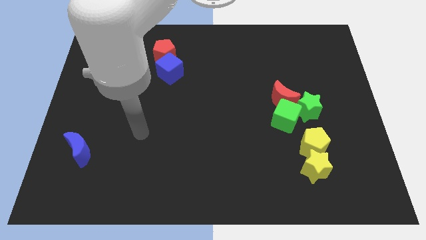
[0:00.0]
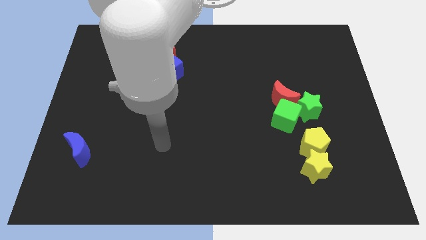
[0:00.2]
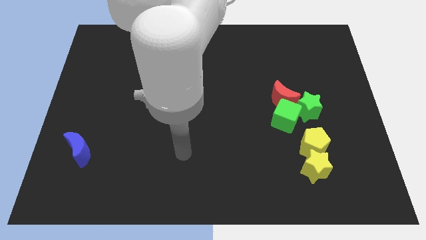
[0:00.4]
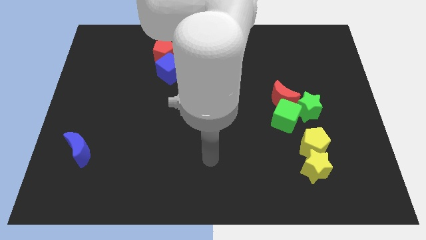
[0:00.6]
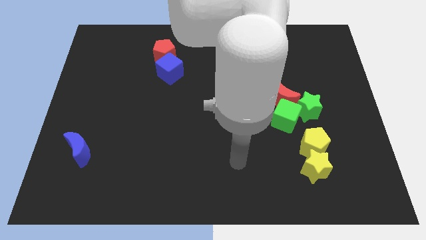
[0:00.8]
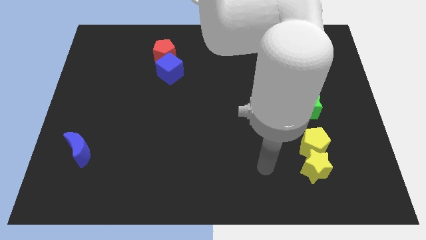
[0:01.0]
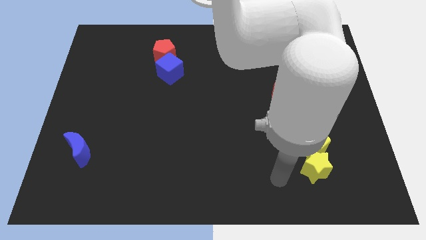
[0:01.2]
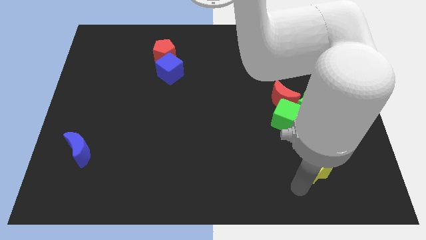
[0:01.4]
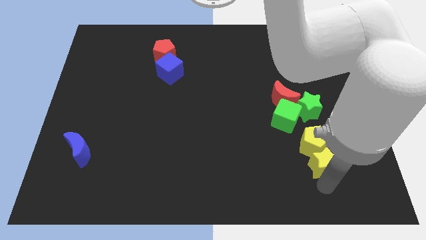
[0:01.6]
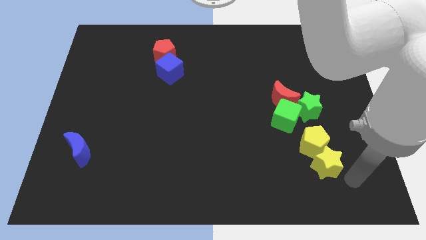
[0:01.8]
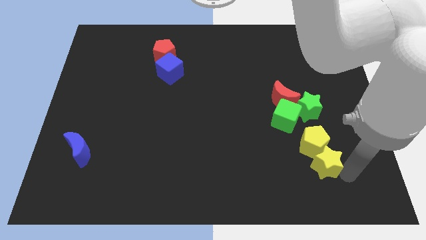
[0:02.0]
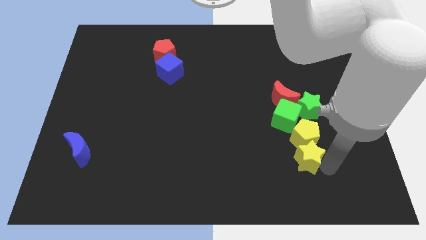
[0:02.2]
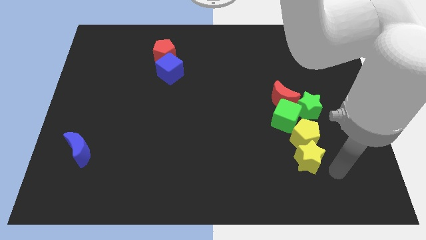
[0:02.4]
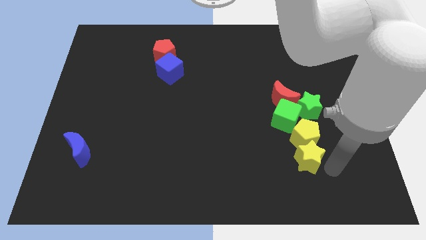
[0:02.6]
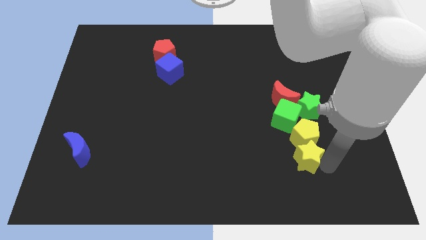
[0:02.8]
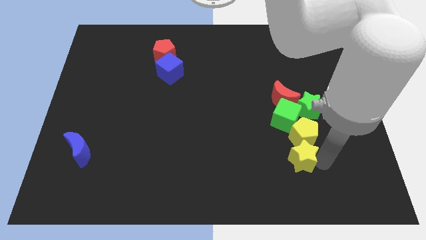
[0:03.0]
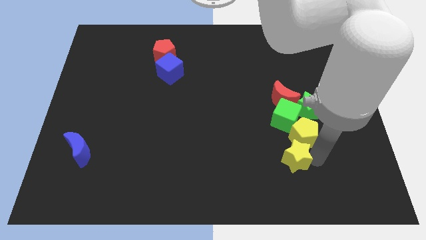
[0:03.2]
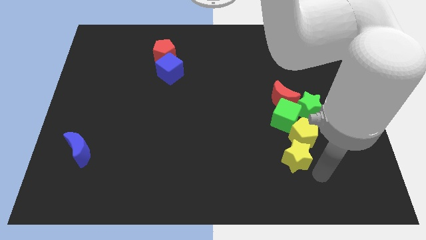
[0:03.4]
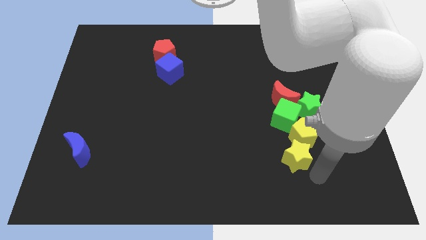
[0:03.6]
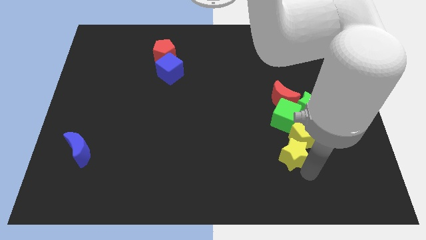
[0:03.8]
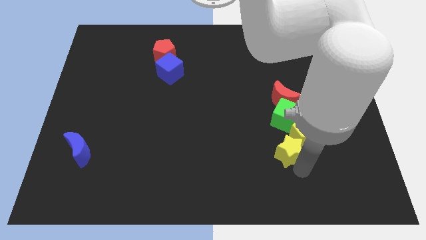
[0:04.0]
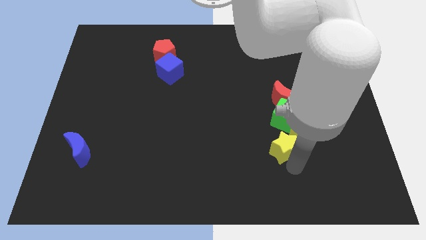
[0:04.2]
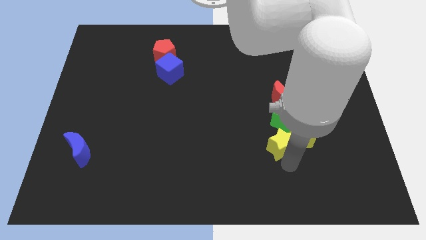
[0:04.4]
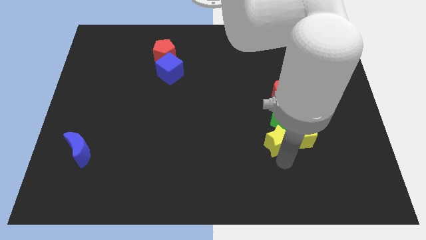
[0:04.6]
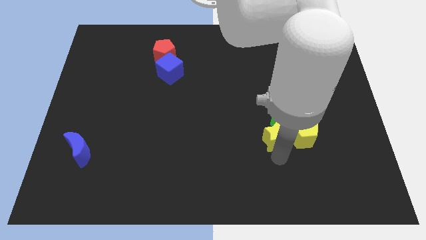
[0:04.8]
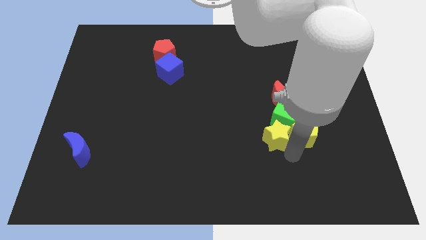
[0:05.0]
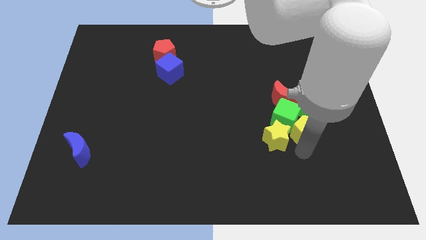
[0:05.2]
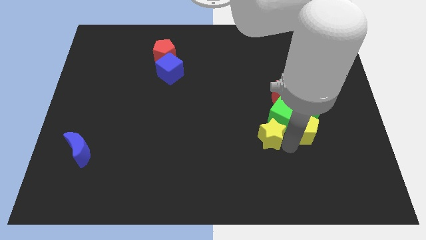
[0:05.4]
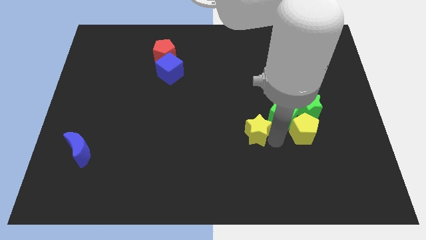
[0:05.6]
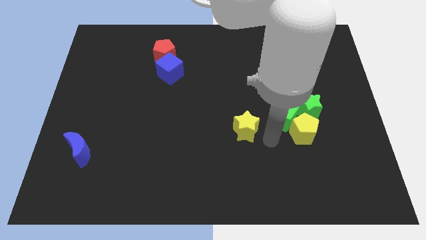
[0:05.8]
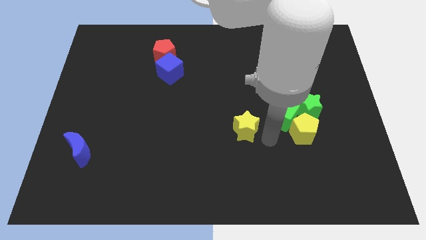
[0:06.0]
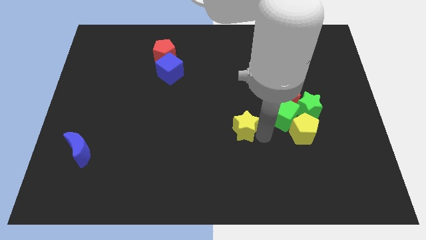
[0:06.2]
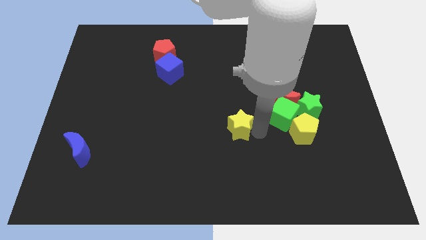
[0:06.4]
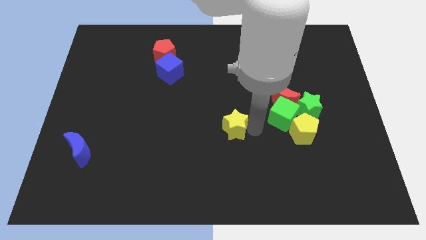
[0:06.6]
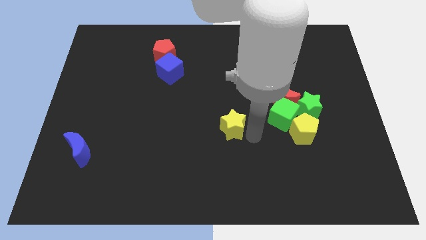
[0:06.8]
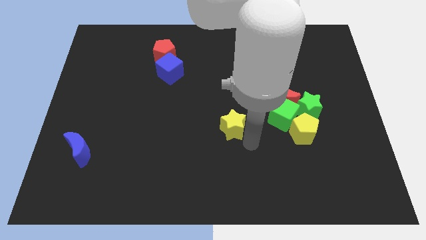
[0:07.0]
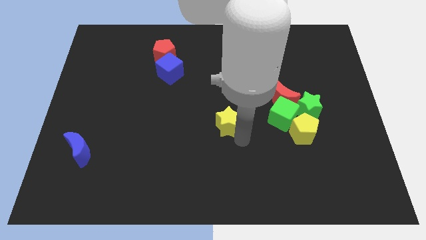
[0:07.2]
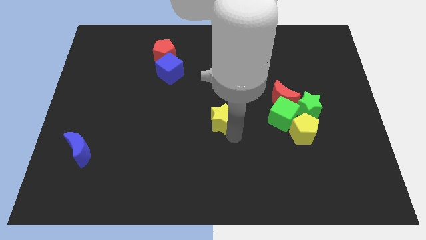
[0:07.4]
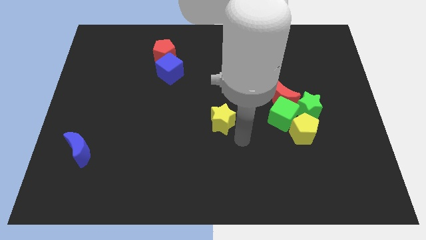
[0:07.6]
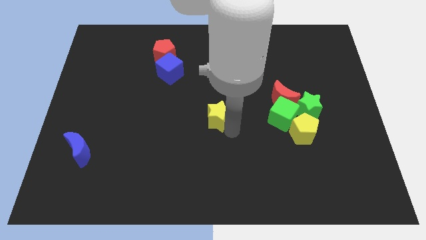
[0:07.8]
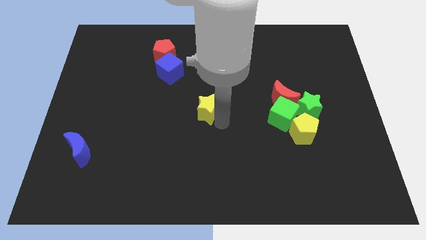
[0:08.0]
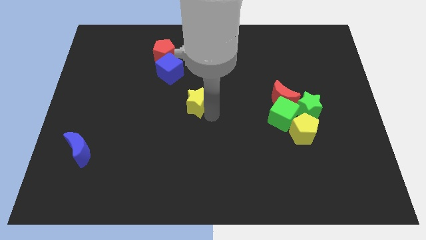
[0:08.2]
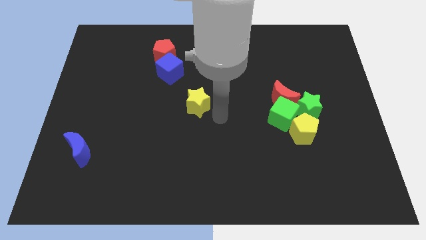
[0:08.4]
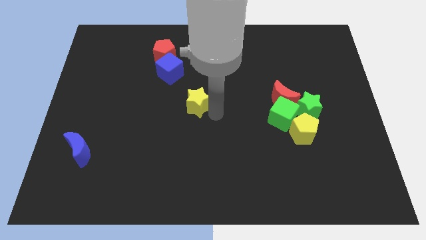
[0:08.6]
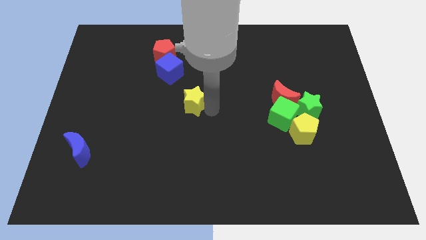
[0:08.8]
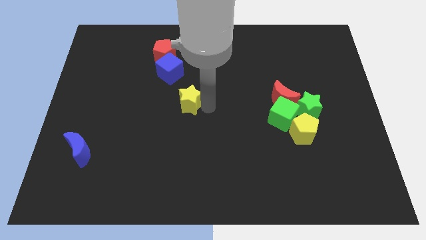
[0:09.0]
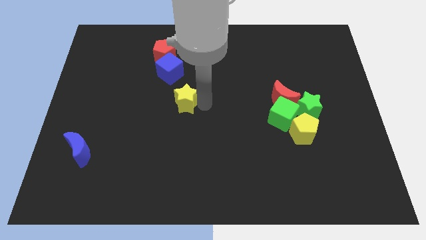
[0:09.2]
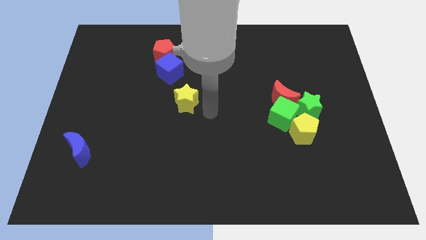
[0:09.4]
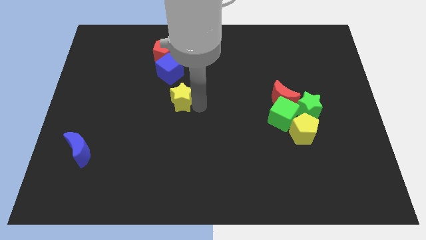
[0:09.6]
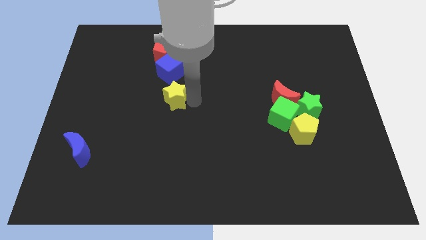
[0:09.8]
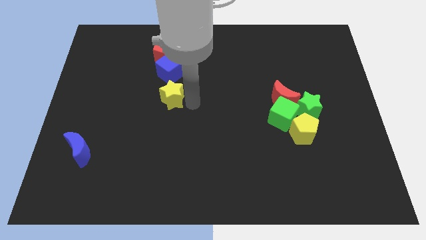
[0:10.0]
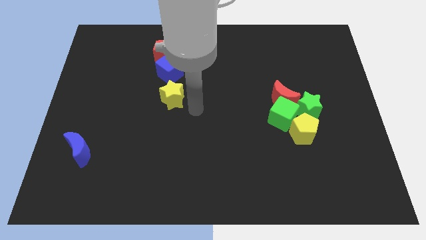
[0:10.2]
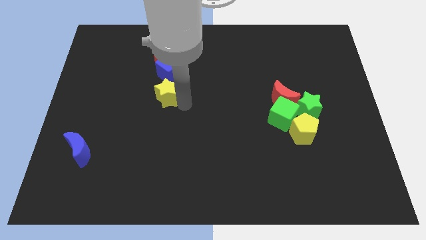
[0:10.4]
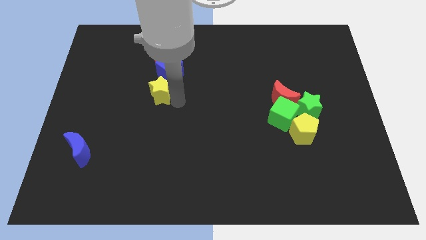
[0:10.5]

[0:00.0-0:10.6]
slide the yellow star to the bottom left of the blue cube

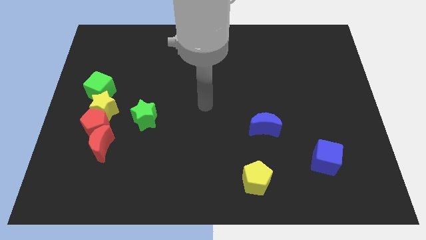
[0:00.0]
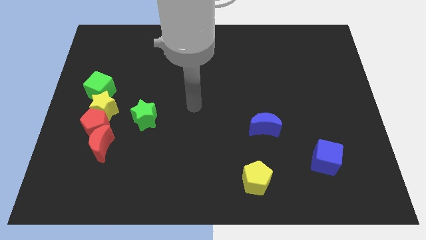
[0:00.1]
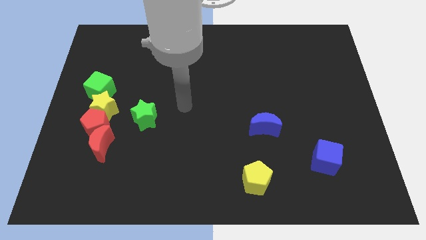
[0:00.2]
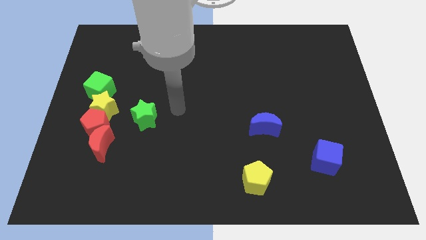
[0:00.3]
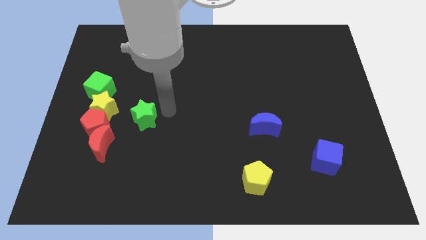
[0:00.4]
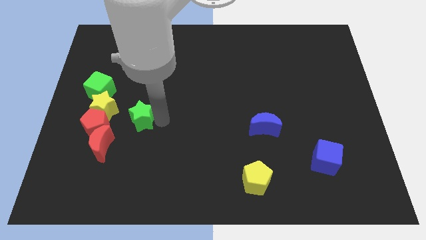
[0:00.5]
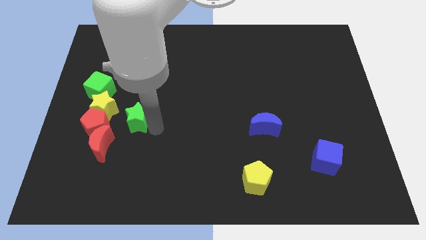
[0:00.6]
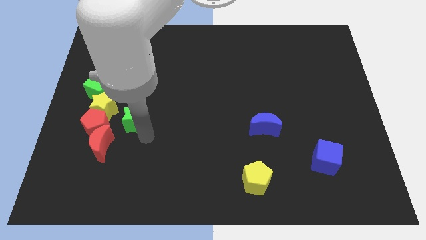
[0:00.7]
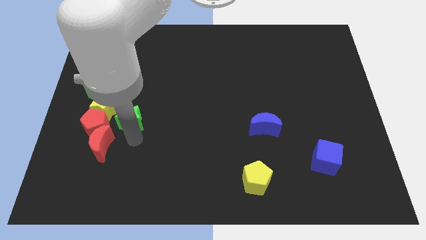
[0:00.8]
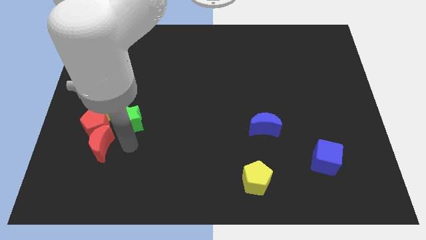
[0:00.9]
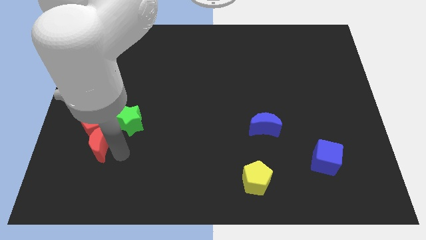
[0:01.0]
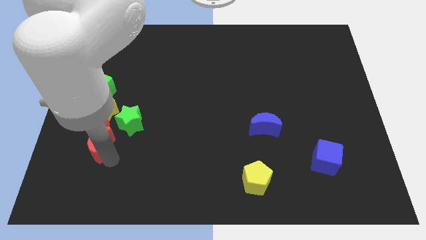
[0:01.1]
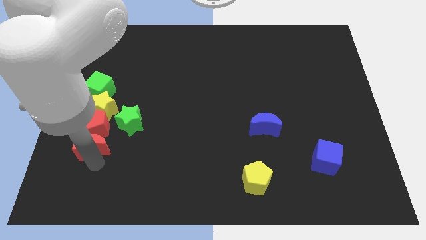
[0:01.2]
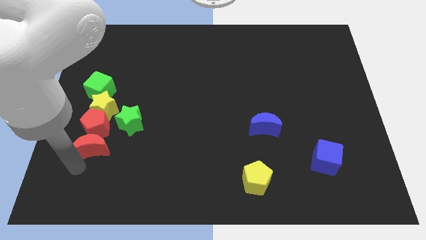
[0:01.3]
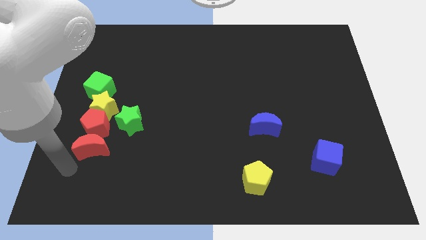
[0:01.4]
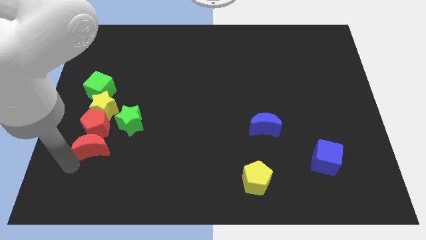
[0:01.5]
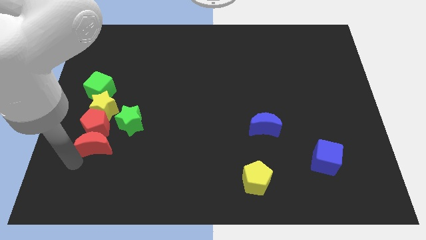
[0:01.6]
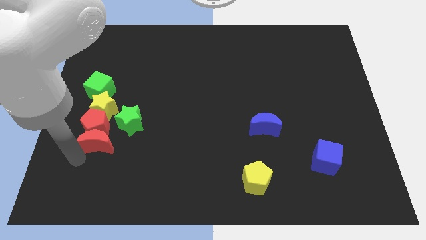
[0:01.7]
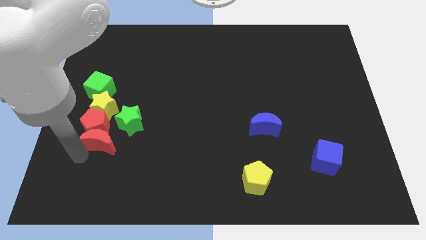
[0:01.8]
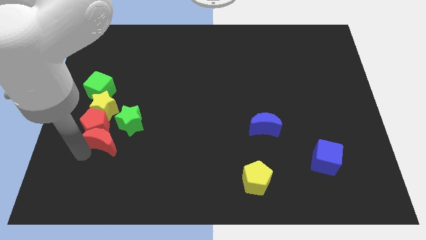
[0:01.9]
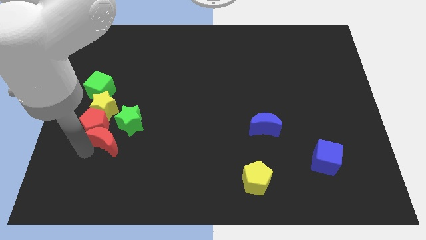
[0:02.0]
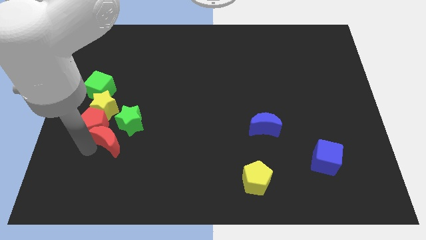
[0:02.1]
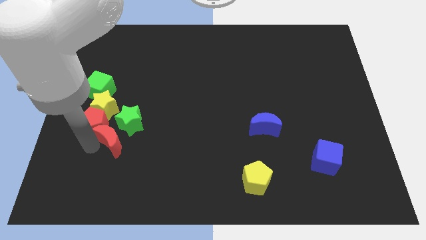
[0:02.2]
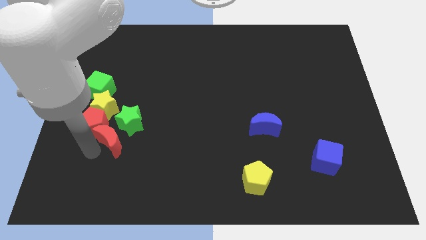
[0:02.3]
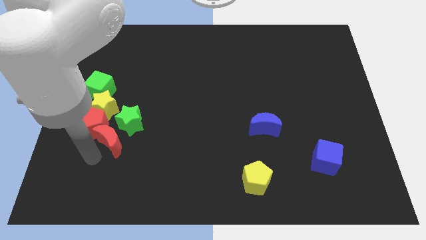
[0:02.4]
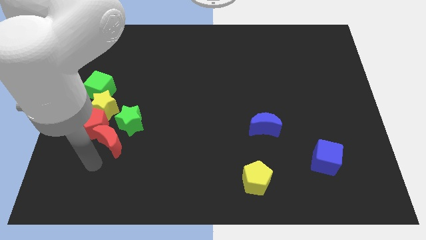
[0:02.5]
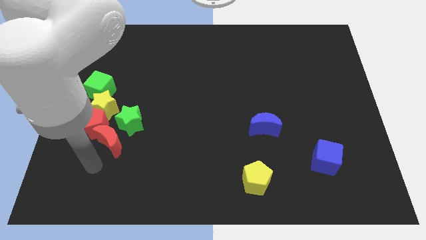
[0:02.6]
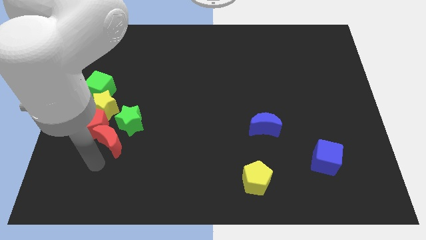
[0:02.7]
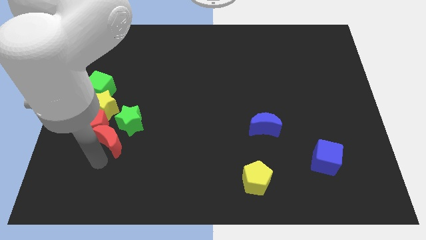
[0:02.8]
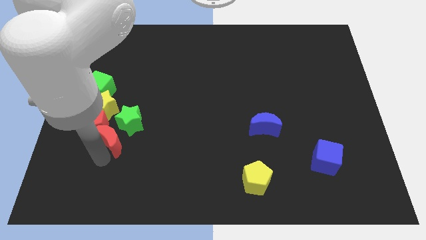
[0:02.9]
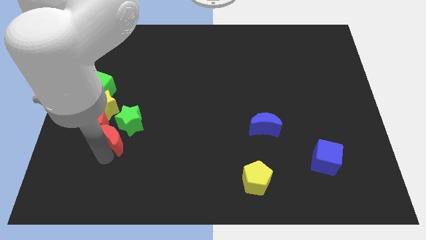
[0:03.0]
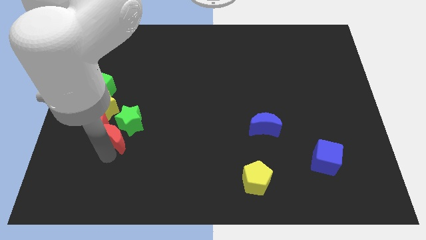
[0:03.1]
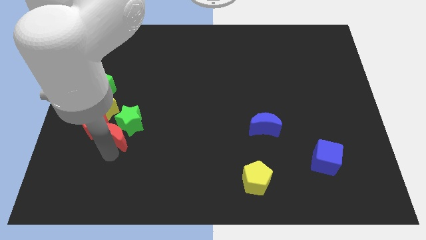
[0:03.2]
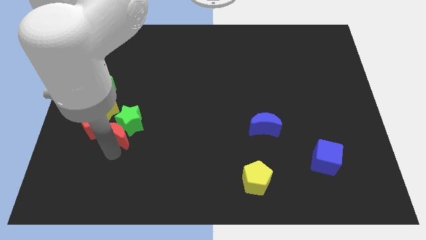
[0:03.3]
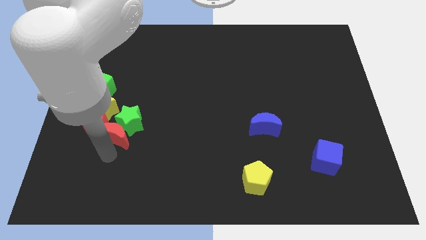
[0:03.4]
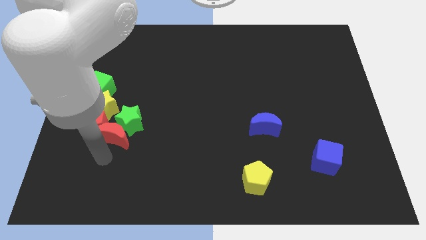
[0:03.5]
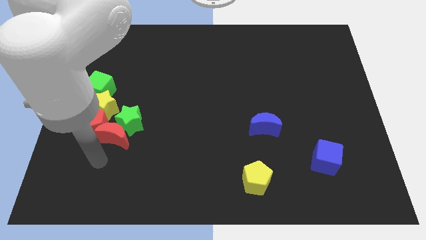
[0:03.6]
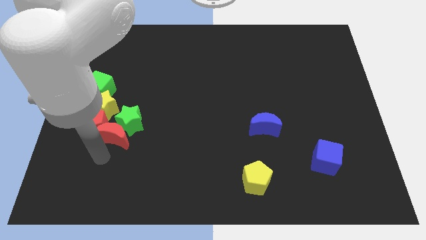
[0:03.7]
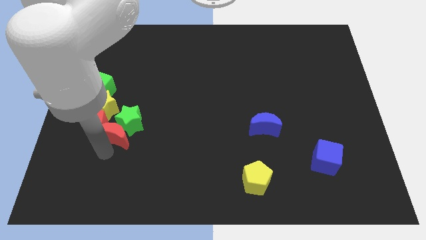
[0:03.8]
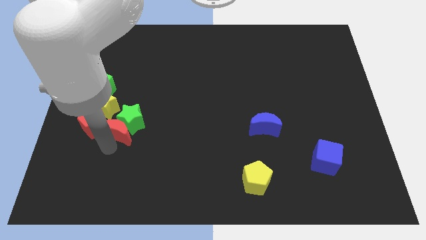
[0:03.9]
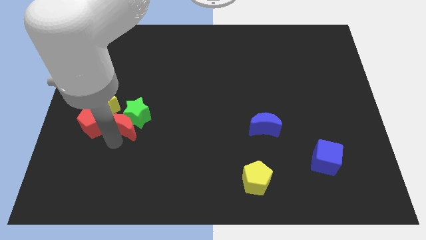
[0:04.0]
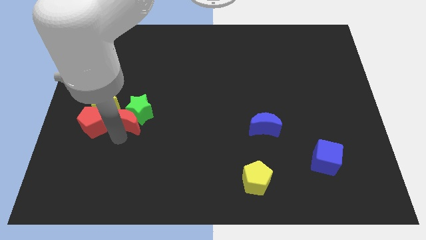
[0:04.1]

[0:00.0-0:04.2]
push the red moon to the right side of the yellow star
